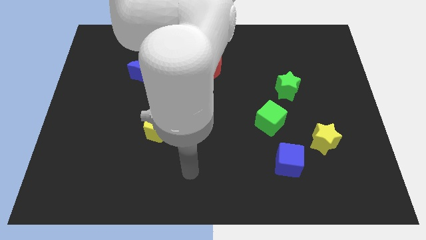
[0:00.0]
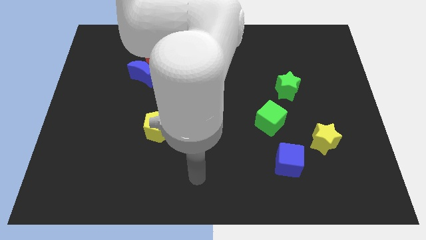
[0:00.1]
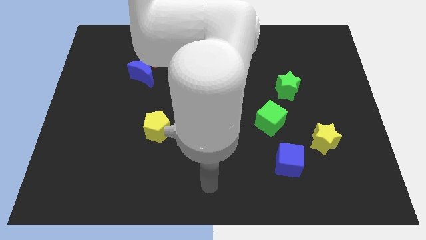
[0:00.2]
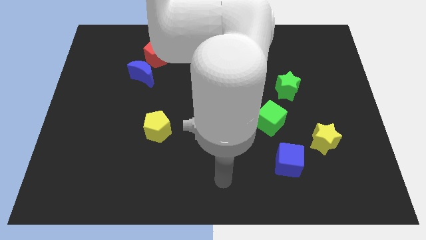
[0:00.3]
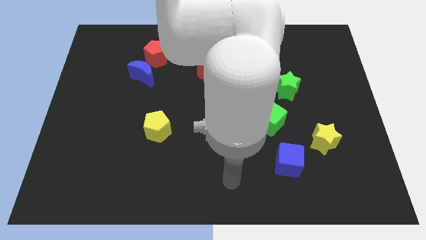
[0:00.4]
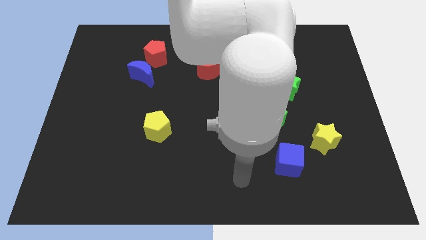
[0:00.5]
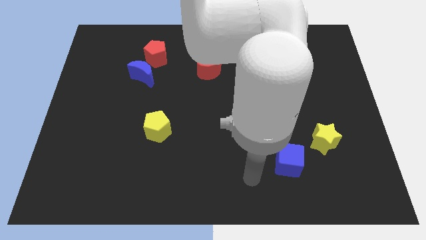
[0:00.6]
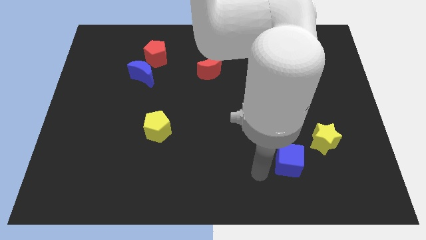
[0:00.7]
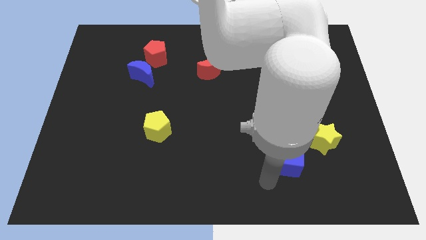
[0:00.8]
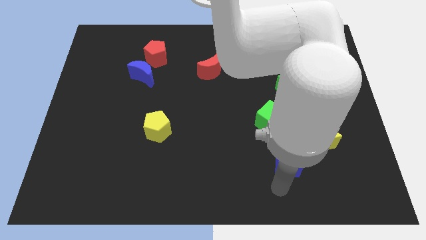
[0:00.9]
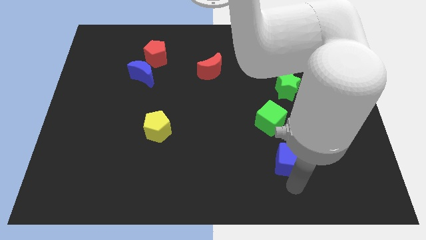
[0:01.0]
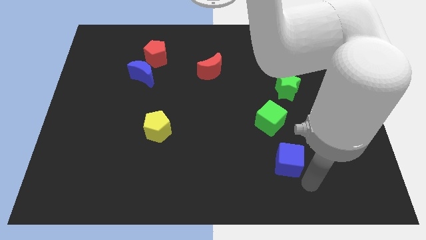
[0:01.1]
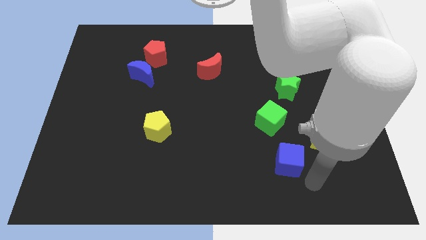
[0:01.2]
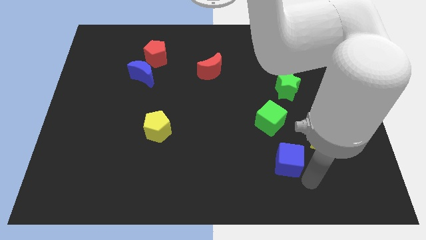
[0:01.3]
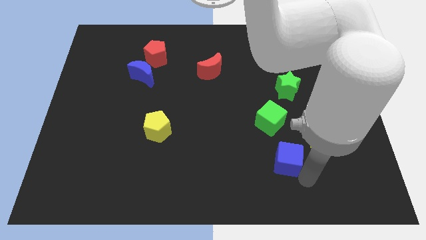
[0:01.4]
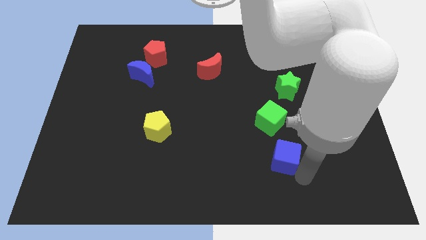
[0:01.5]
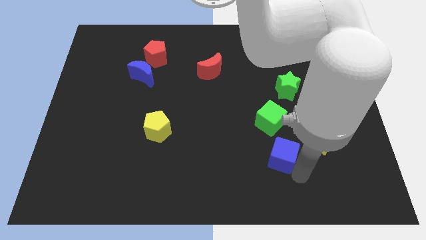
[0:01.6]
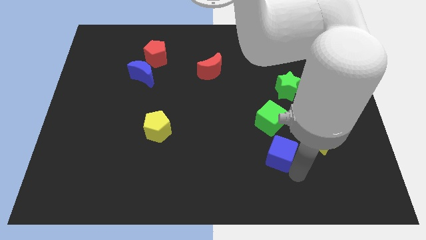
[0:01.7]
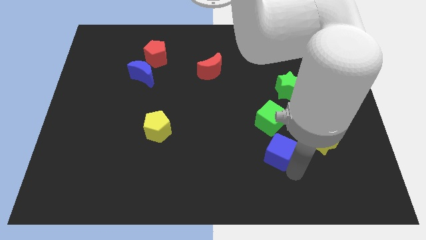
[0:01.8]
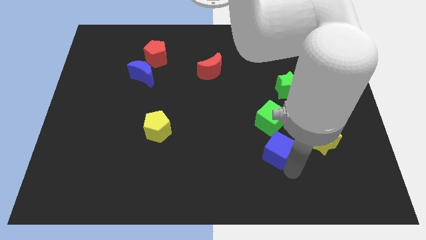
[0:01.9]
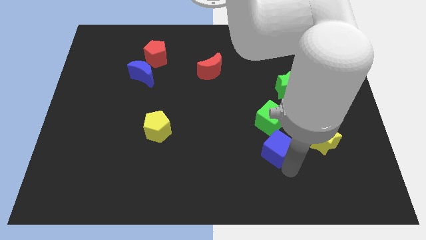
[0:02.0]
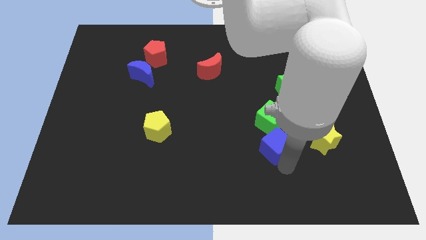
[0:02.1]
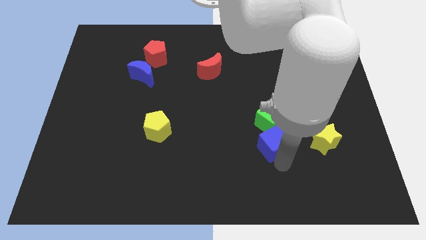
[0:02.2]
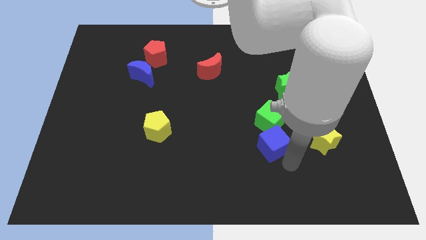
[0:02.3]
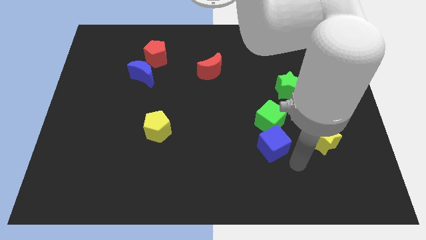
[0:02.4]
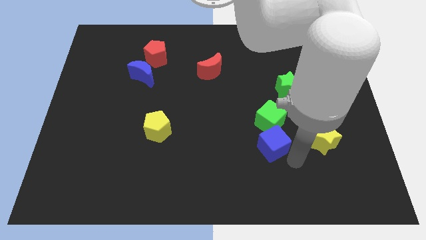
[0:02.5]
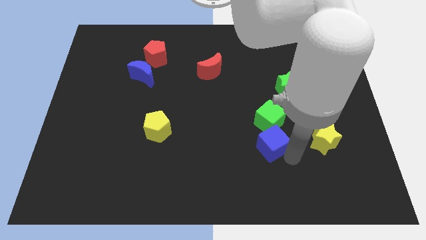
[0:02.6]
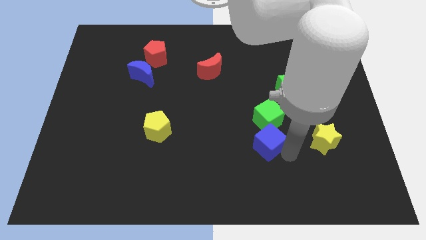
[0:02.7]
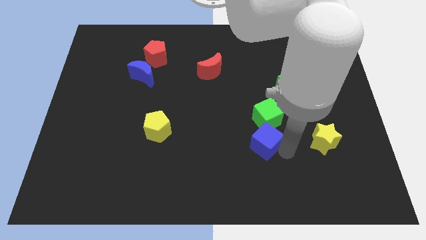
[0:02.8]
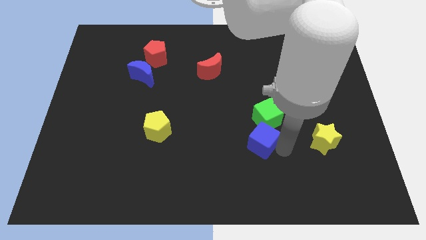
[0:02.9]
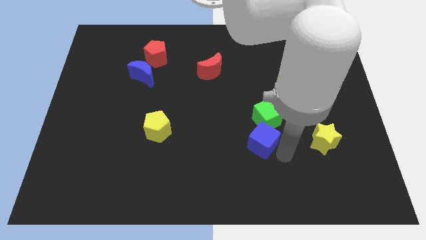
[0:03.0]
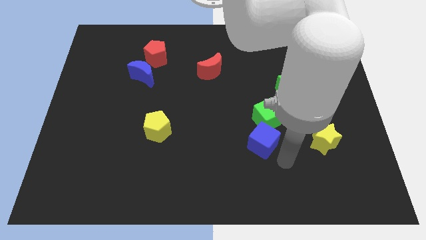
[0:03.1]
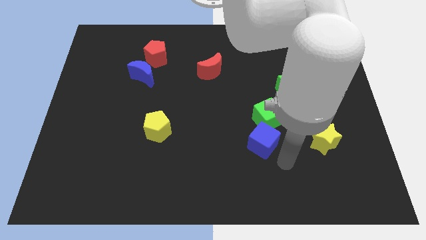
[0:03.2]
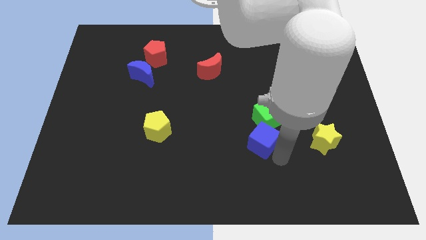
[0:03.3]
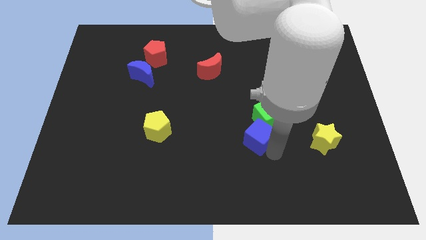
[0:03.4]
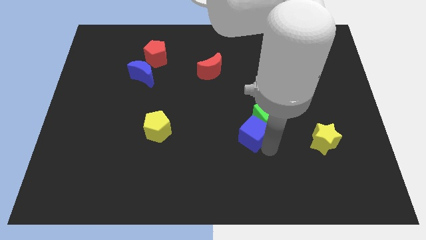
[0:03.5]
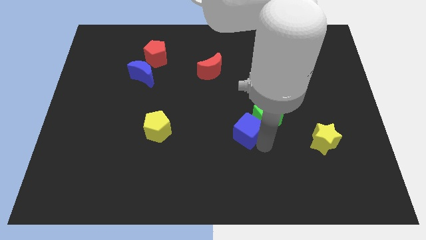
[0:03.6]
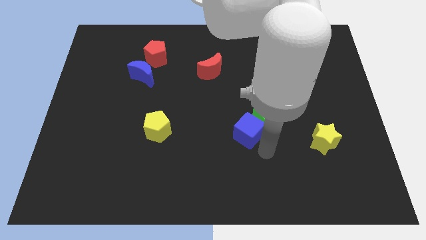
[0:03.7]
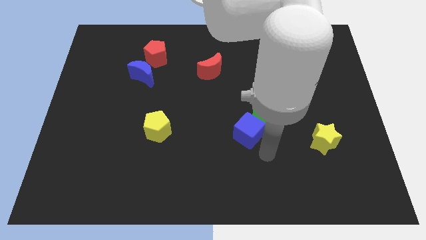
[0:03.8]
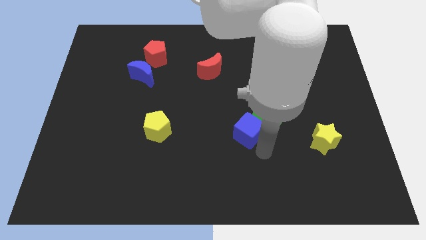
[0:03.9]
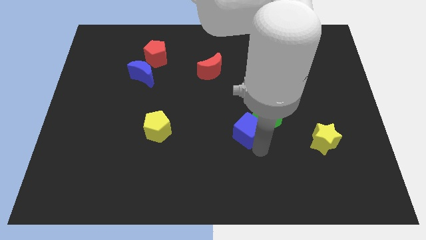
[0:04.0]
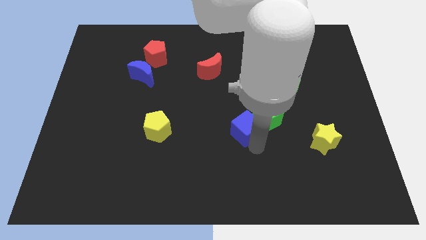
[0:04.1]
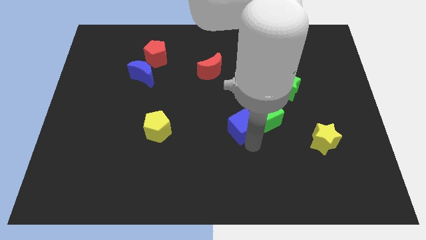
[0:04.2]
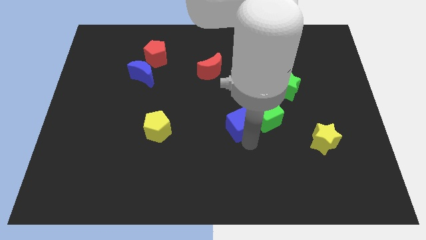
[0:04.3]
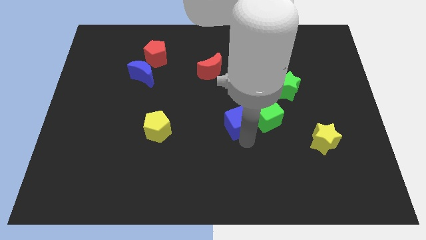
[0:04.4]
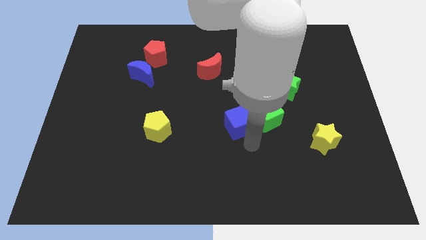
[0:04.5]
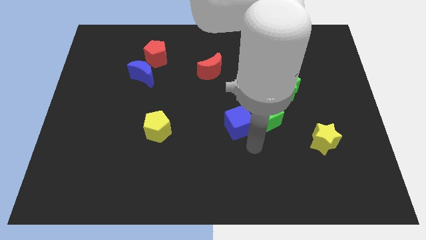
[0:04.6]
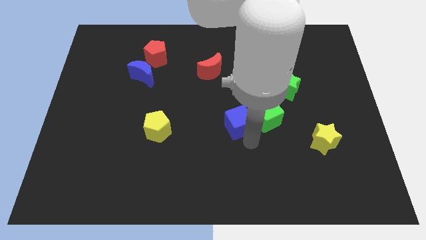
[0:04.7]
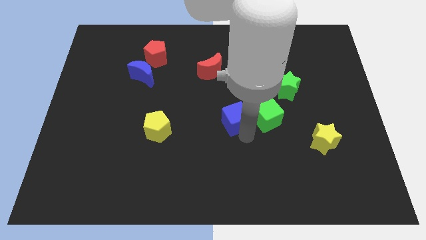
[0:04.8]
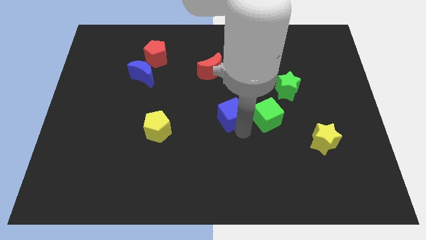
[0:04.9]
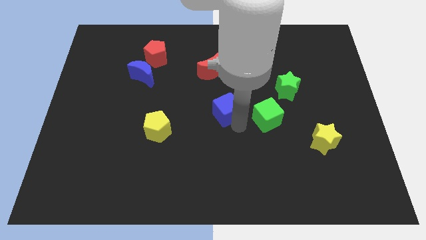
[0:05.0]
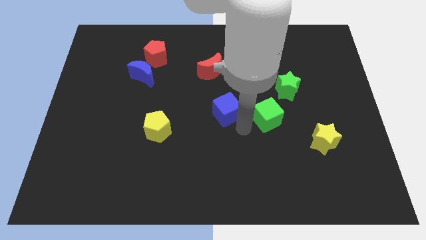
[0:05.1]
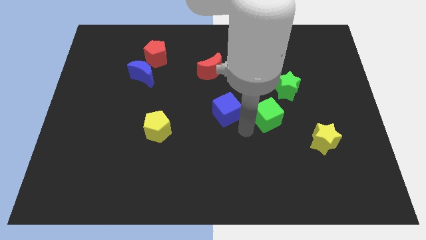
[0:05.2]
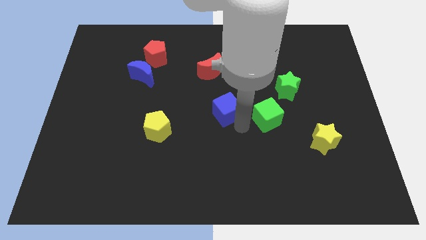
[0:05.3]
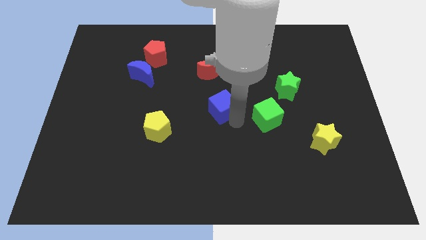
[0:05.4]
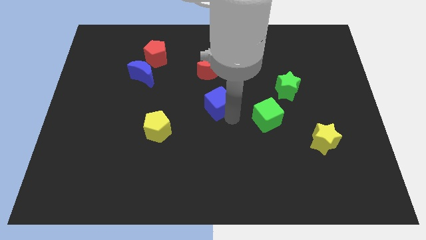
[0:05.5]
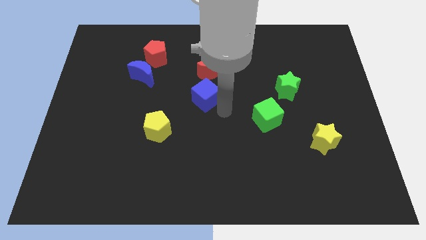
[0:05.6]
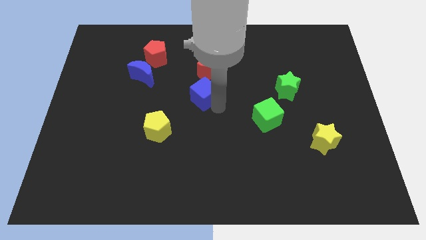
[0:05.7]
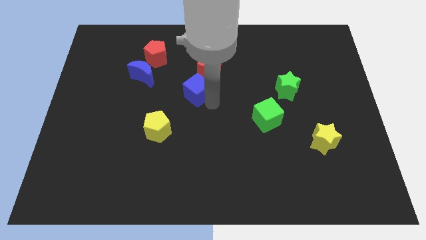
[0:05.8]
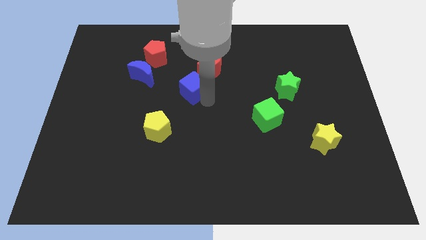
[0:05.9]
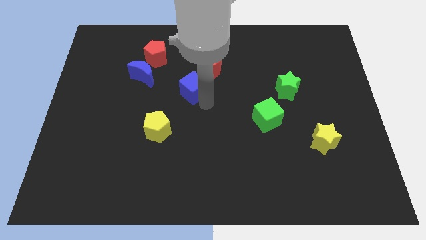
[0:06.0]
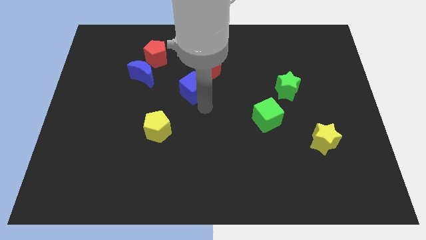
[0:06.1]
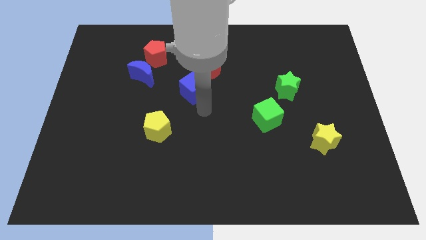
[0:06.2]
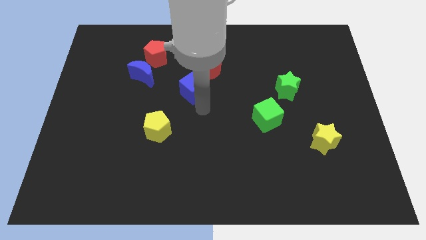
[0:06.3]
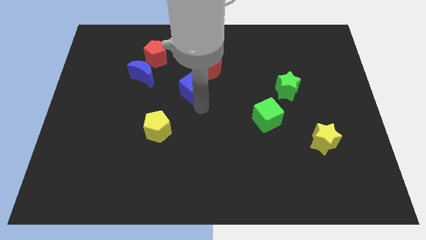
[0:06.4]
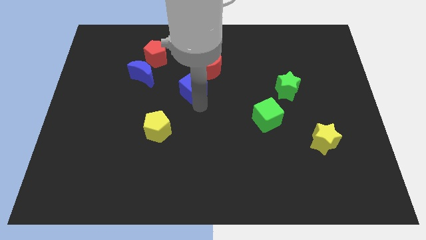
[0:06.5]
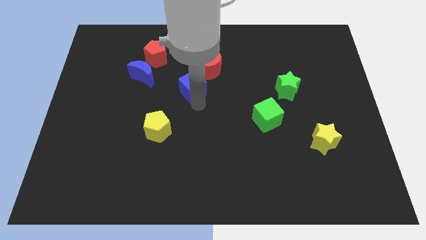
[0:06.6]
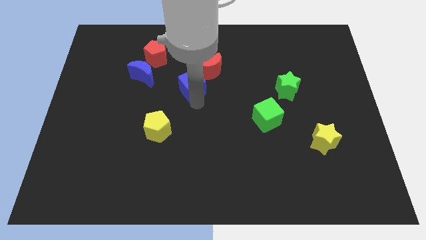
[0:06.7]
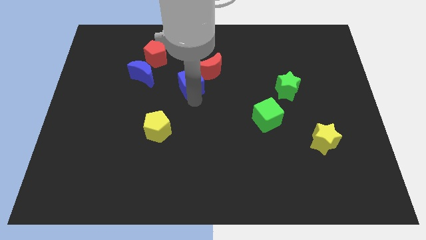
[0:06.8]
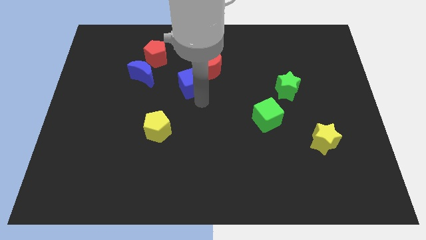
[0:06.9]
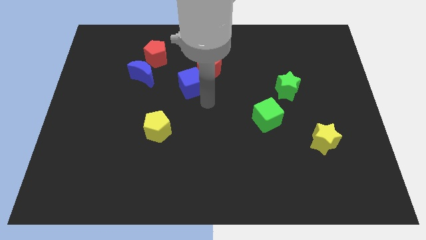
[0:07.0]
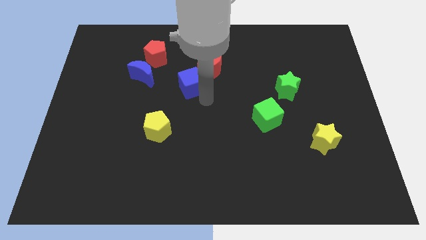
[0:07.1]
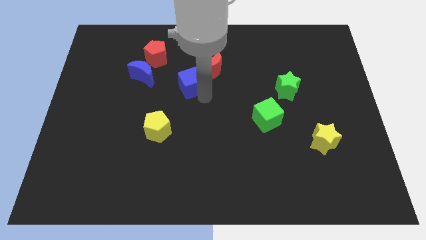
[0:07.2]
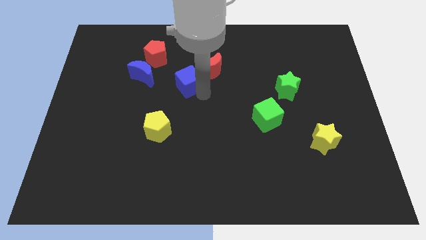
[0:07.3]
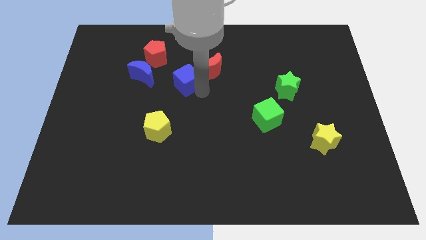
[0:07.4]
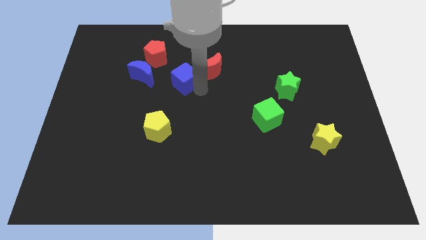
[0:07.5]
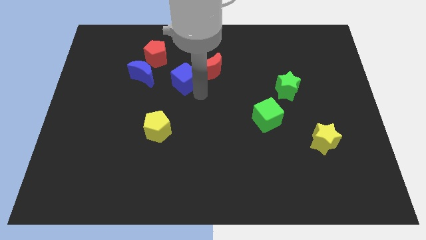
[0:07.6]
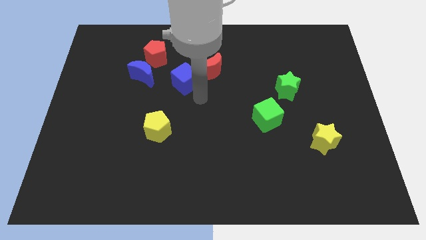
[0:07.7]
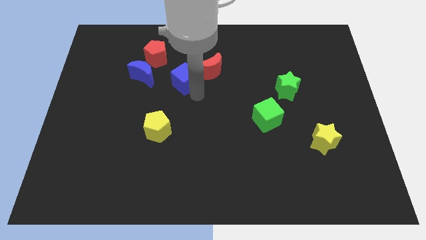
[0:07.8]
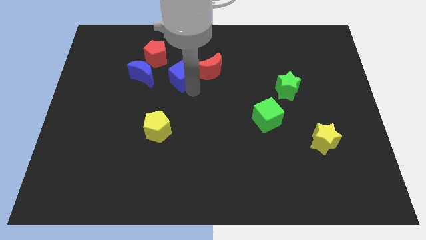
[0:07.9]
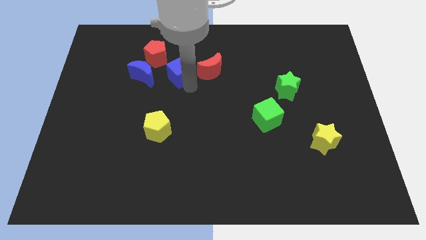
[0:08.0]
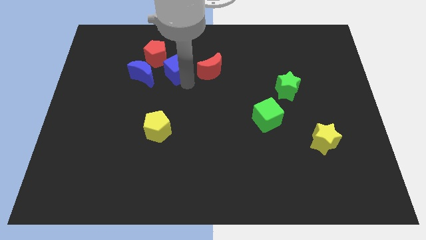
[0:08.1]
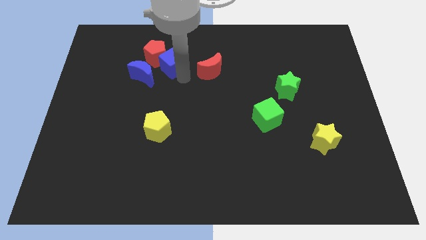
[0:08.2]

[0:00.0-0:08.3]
push the blue cube close to the red pentagon
